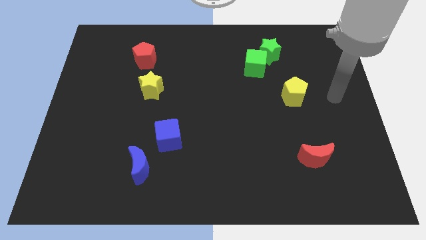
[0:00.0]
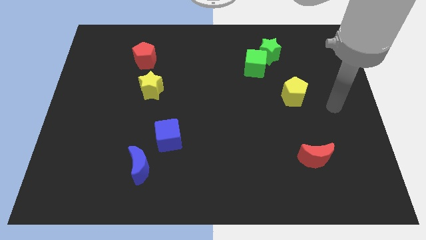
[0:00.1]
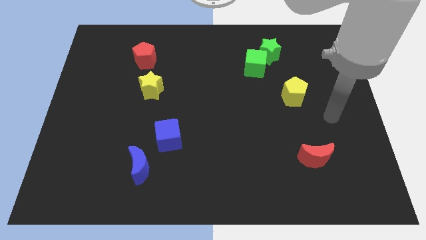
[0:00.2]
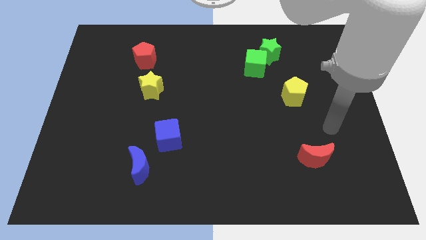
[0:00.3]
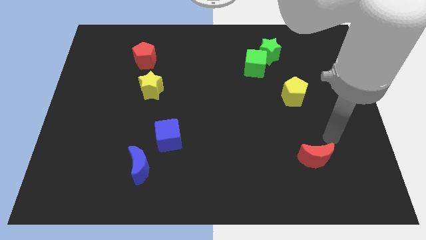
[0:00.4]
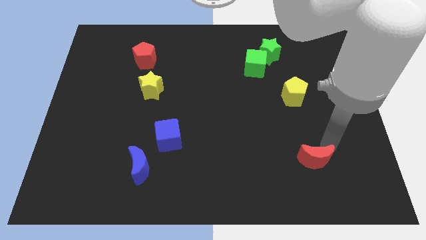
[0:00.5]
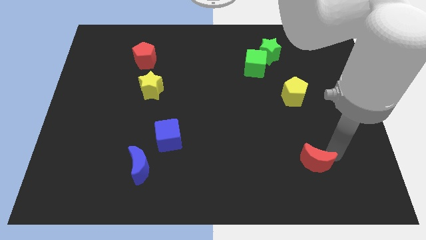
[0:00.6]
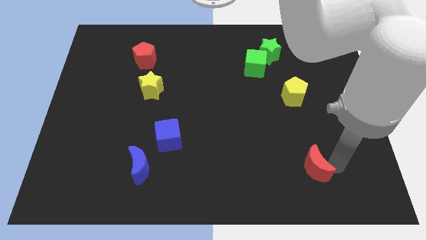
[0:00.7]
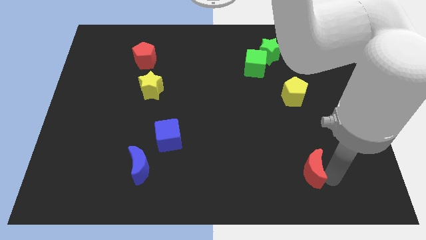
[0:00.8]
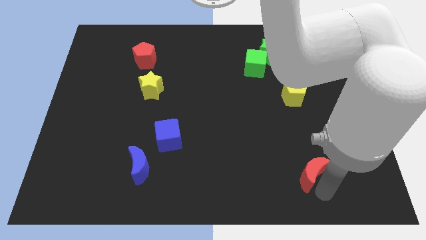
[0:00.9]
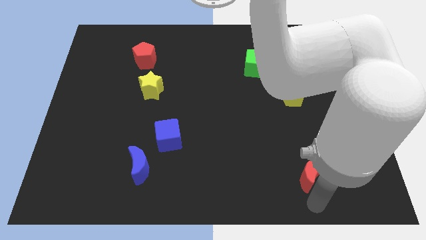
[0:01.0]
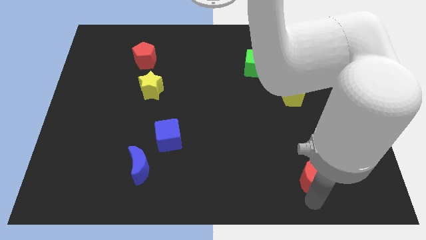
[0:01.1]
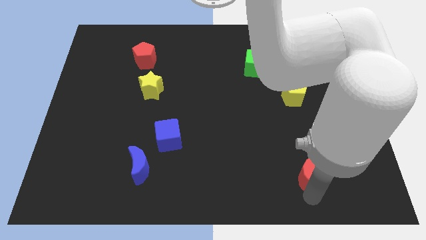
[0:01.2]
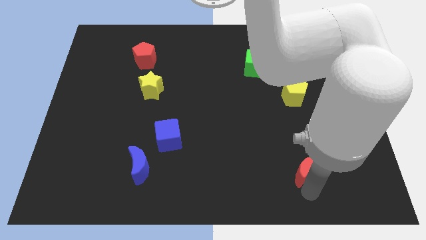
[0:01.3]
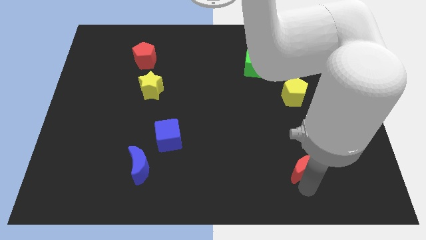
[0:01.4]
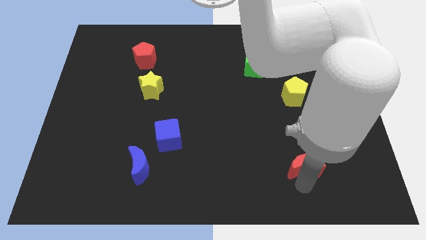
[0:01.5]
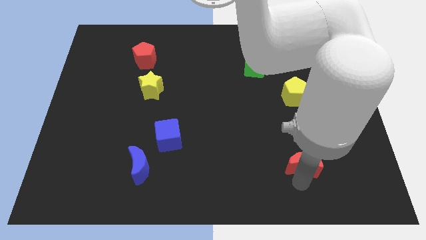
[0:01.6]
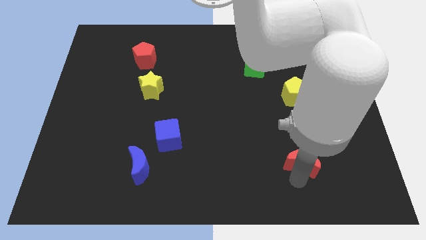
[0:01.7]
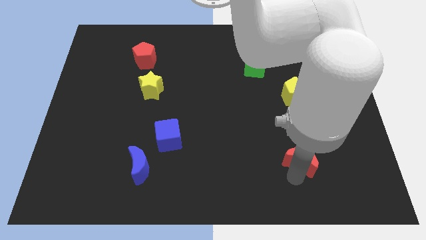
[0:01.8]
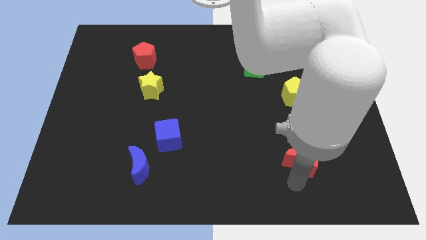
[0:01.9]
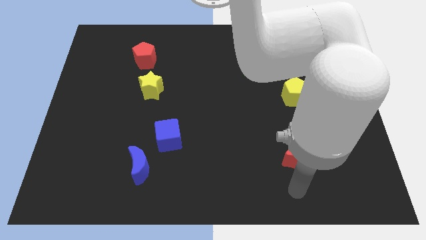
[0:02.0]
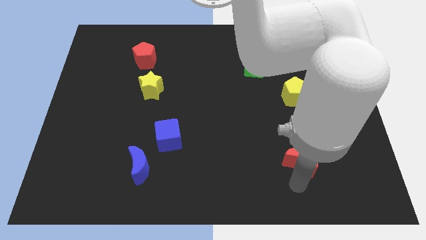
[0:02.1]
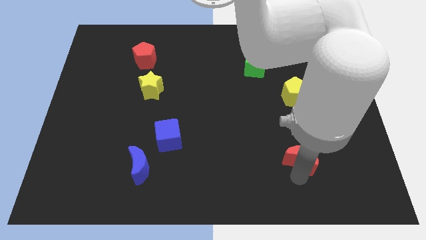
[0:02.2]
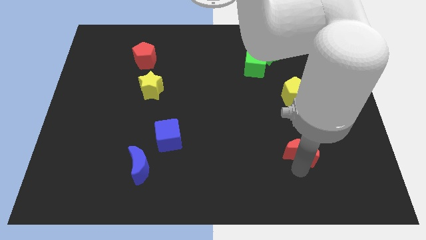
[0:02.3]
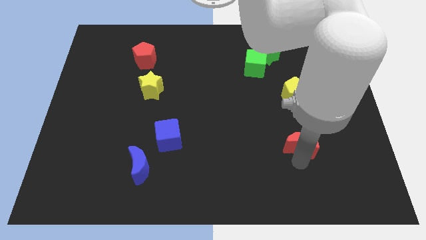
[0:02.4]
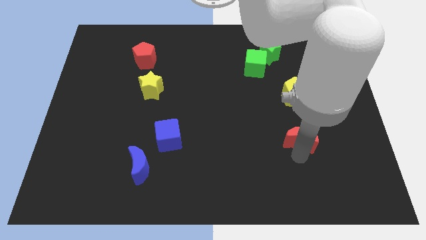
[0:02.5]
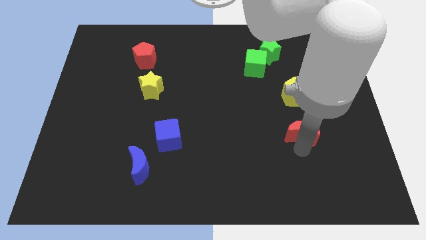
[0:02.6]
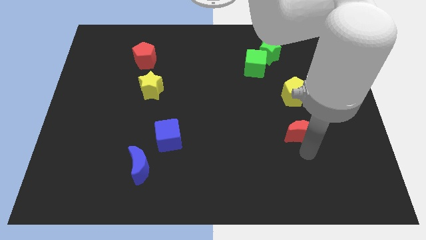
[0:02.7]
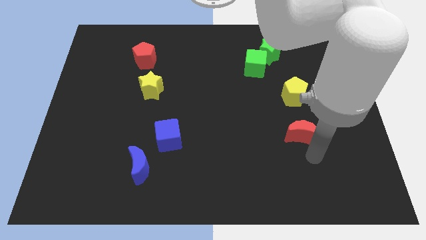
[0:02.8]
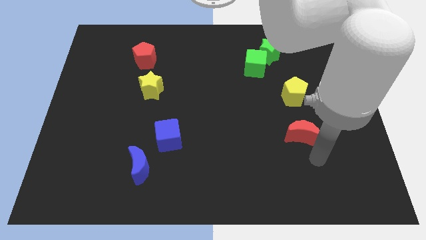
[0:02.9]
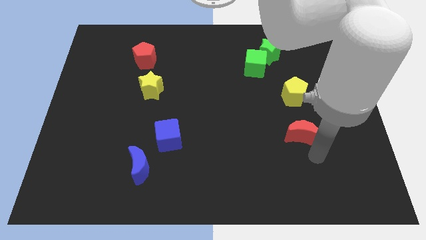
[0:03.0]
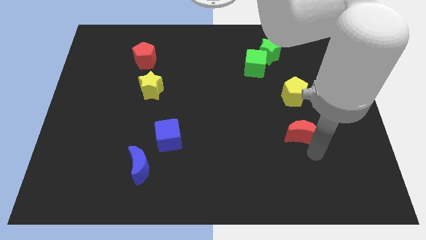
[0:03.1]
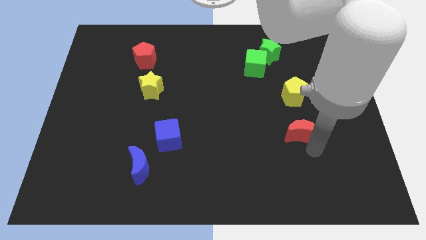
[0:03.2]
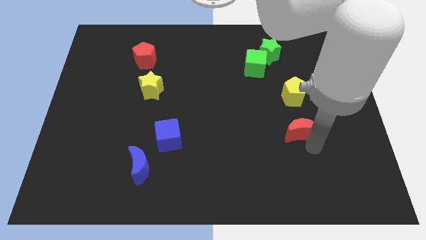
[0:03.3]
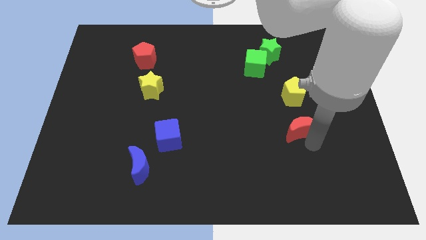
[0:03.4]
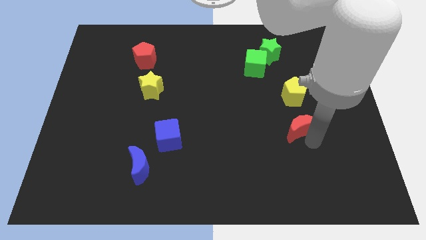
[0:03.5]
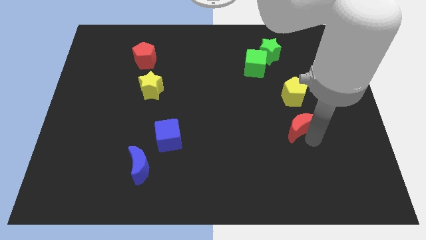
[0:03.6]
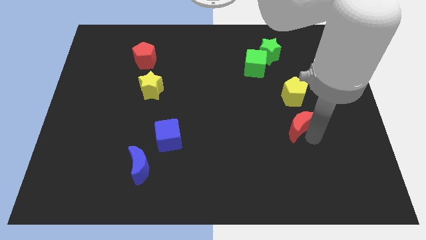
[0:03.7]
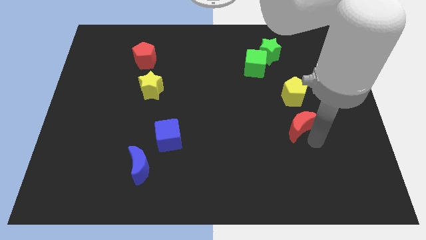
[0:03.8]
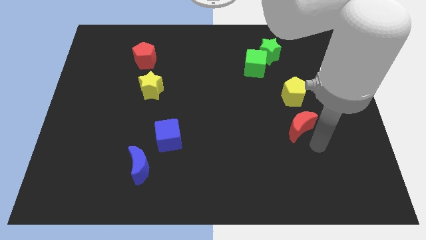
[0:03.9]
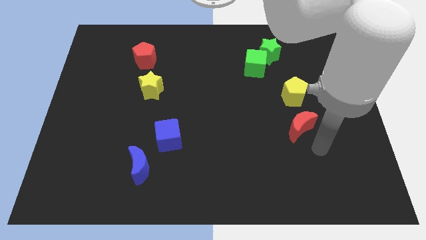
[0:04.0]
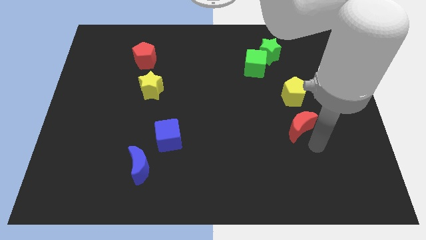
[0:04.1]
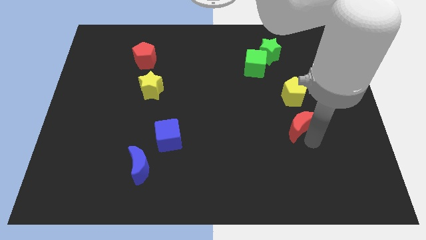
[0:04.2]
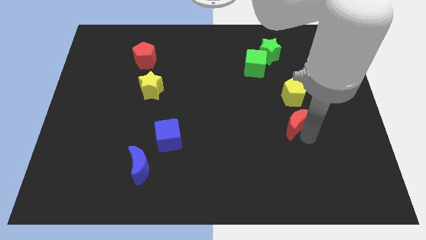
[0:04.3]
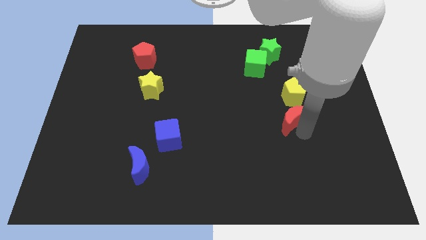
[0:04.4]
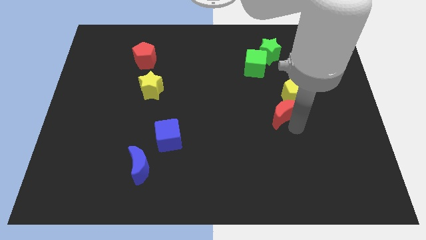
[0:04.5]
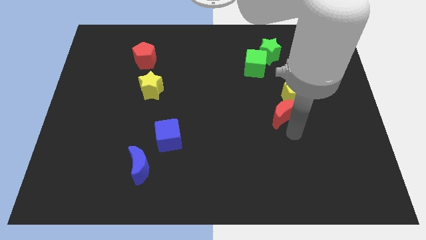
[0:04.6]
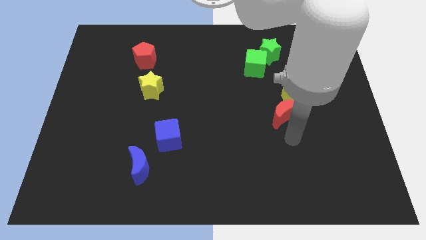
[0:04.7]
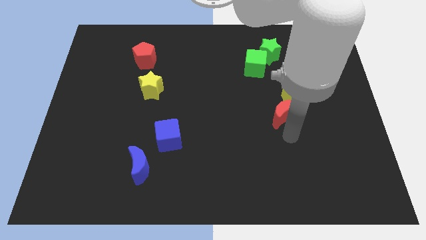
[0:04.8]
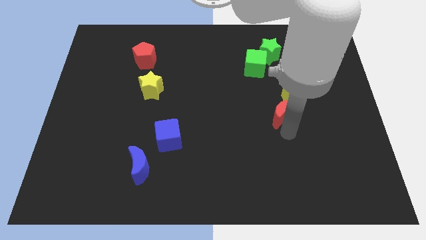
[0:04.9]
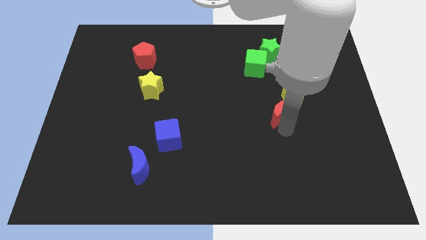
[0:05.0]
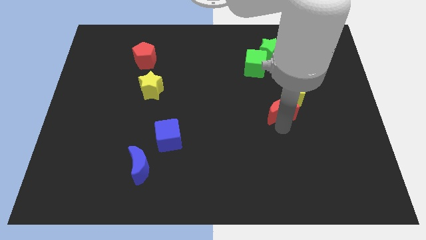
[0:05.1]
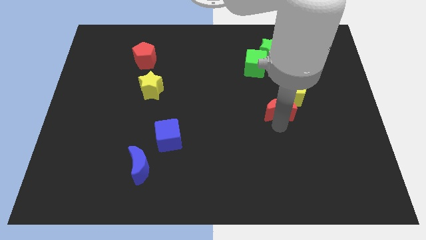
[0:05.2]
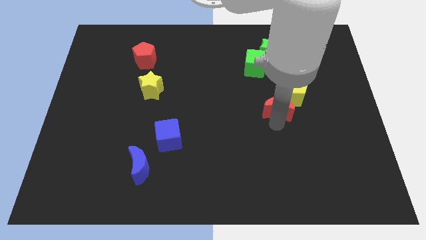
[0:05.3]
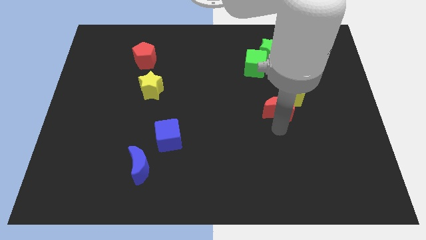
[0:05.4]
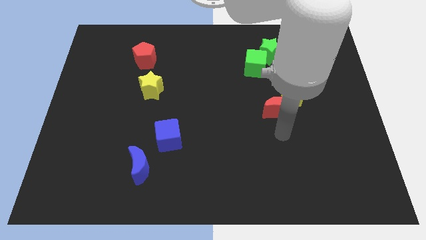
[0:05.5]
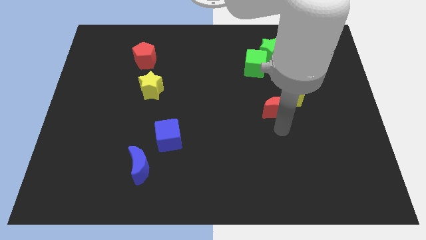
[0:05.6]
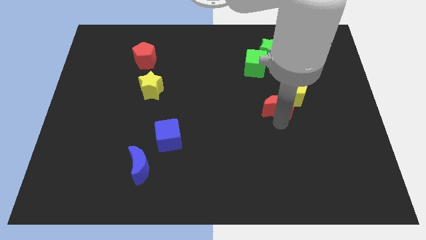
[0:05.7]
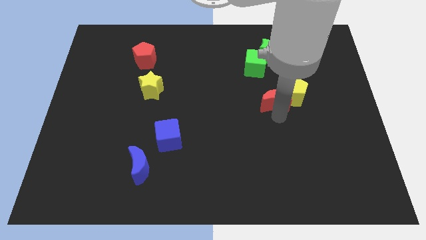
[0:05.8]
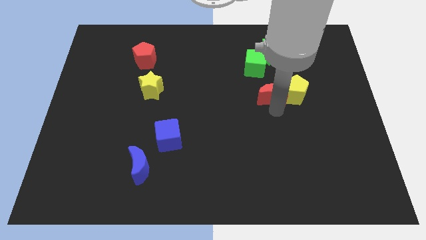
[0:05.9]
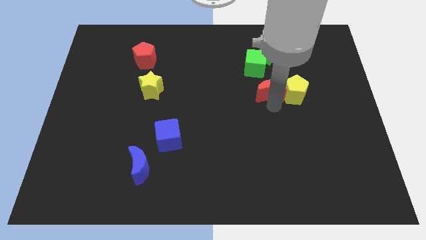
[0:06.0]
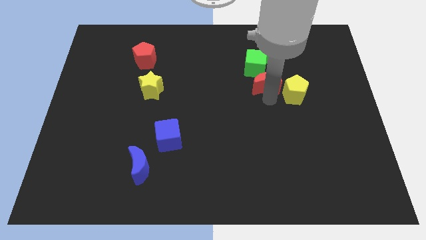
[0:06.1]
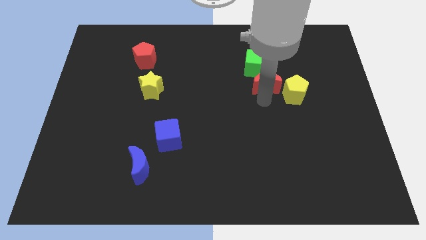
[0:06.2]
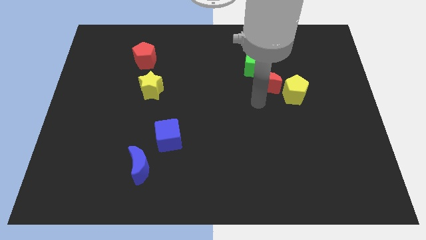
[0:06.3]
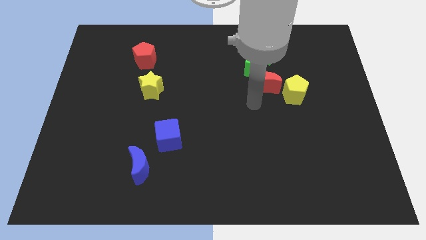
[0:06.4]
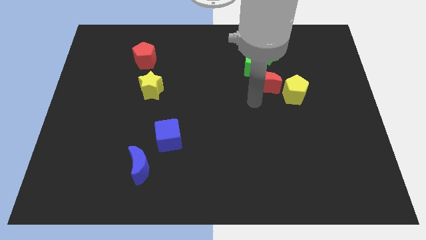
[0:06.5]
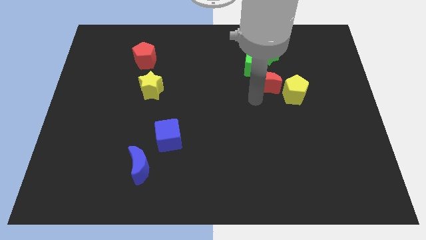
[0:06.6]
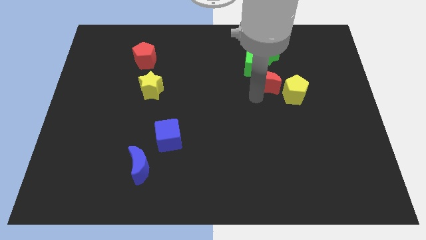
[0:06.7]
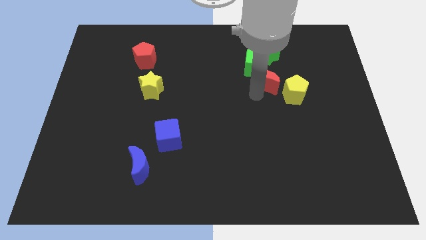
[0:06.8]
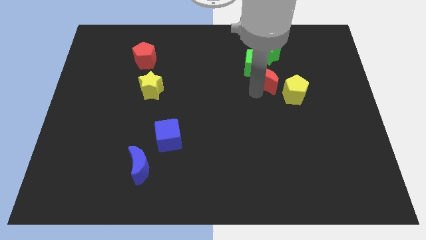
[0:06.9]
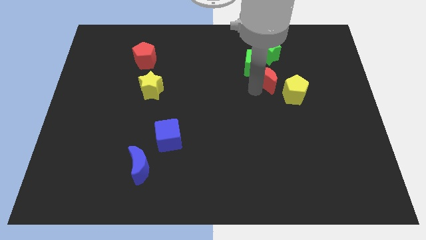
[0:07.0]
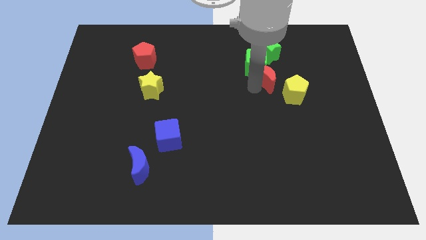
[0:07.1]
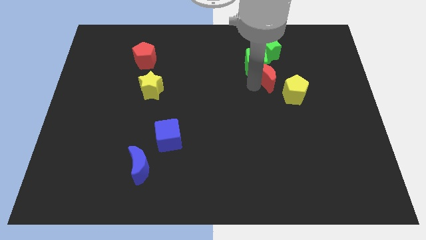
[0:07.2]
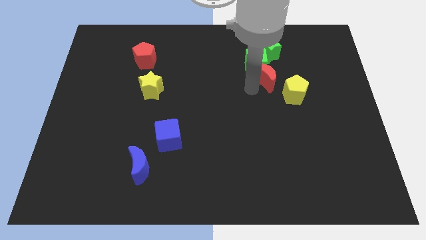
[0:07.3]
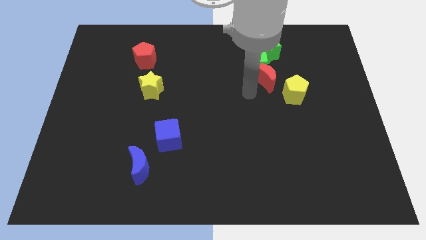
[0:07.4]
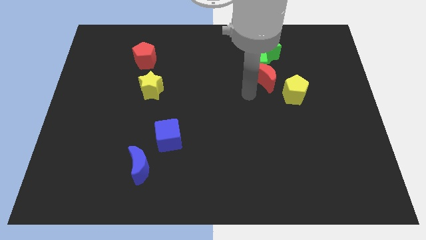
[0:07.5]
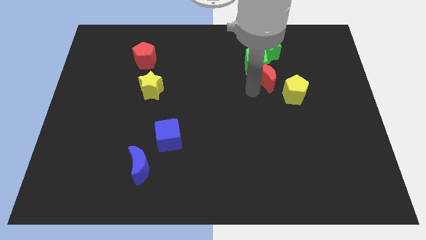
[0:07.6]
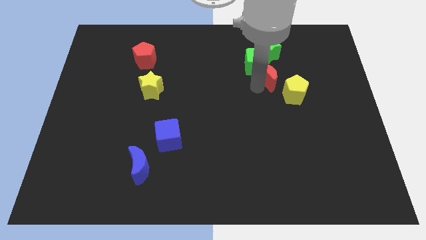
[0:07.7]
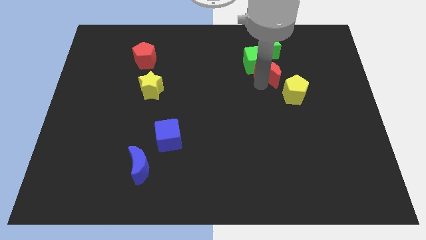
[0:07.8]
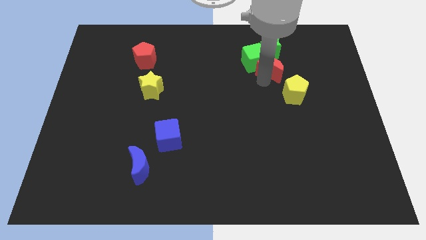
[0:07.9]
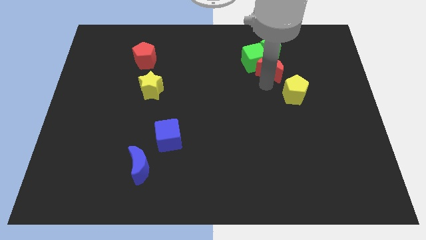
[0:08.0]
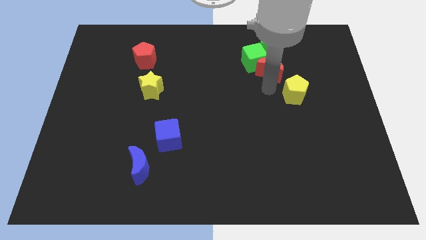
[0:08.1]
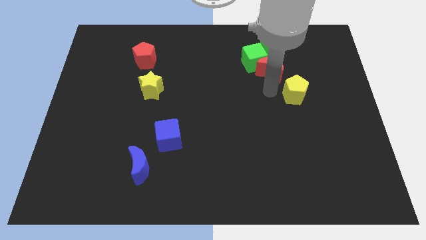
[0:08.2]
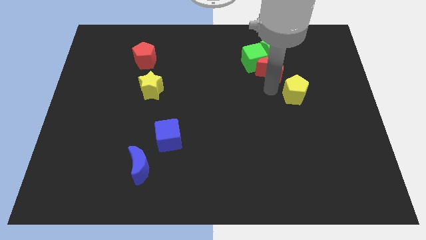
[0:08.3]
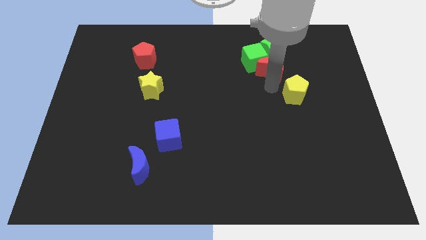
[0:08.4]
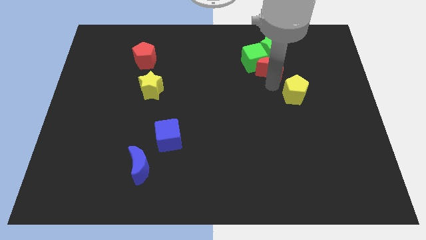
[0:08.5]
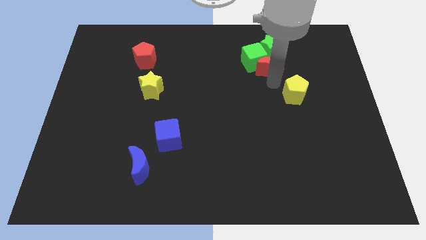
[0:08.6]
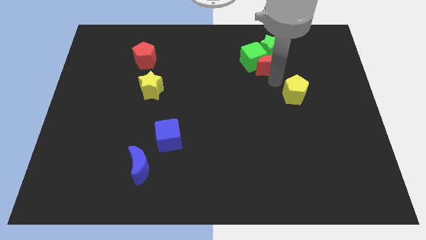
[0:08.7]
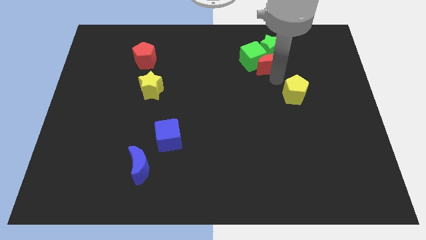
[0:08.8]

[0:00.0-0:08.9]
put the red moon next to the green star
